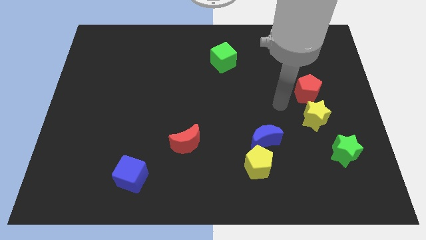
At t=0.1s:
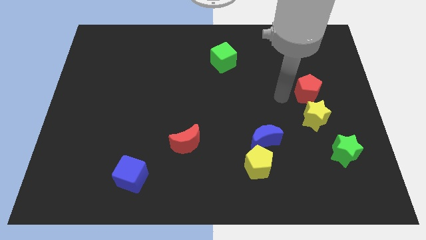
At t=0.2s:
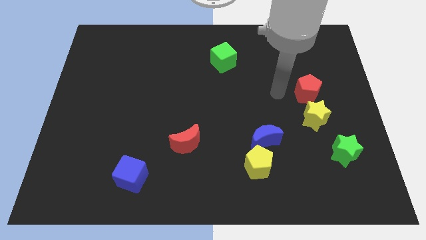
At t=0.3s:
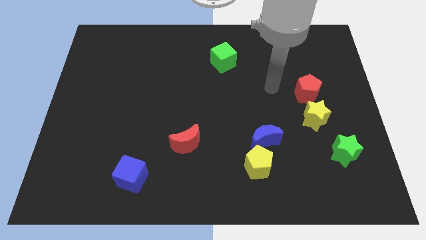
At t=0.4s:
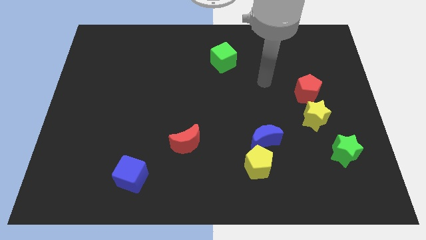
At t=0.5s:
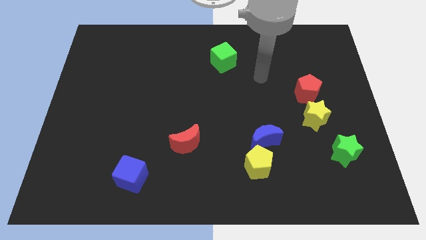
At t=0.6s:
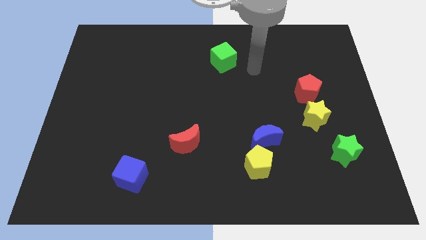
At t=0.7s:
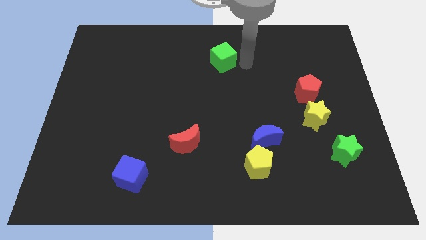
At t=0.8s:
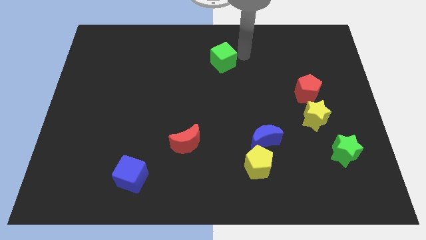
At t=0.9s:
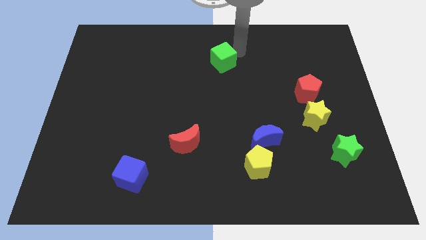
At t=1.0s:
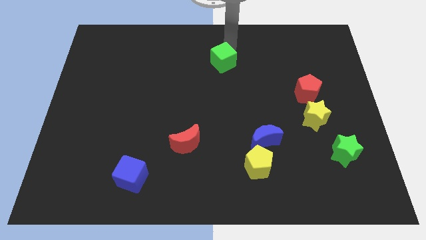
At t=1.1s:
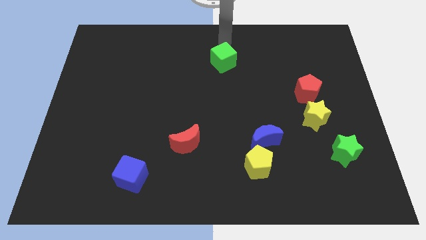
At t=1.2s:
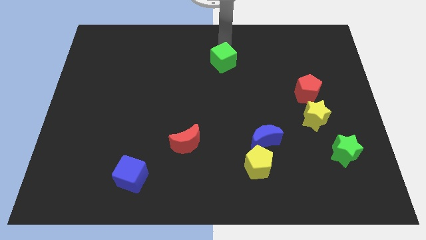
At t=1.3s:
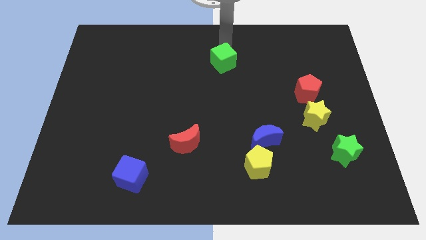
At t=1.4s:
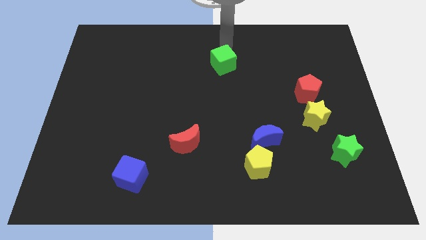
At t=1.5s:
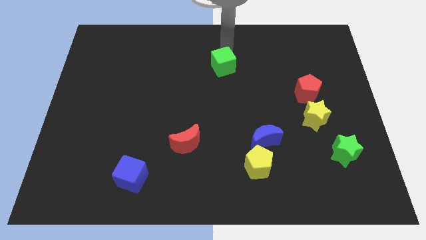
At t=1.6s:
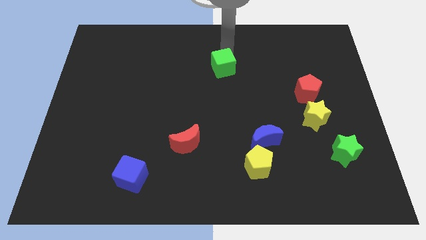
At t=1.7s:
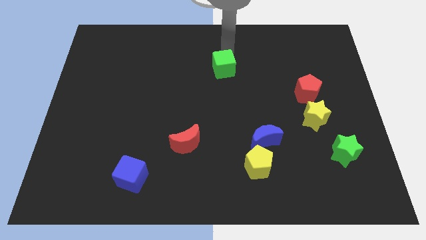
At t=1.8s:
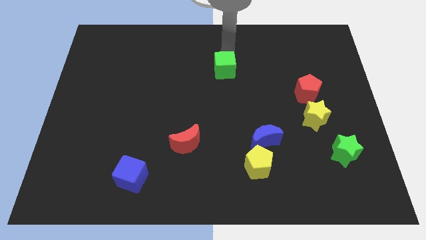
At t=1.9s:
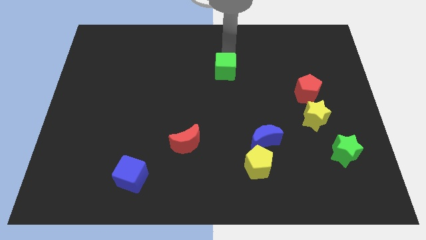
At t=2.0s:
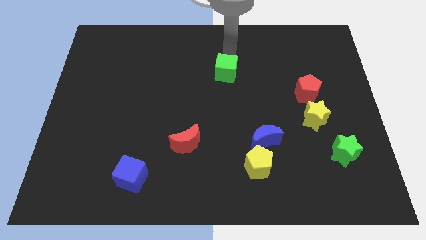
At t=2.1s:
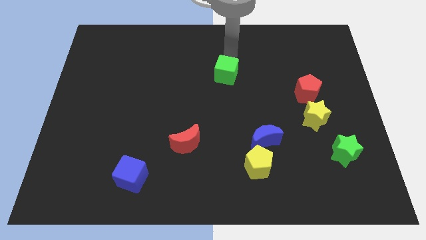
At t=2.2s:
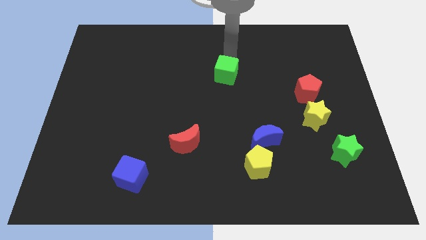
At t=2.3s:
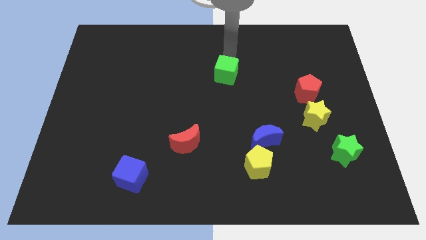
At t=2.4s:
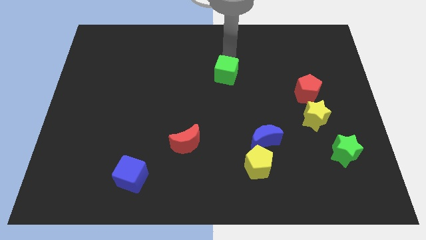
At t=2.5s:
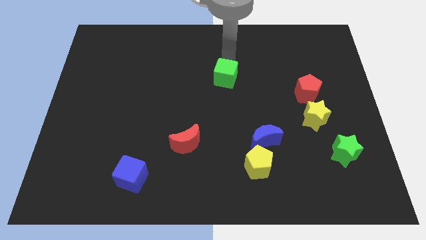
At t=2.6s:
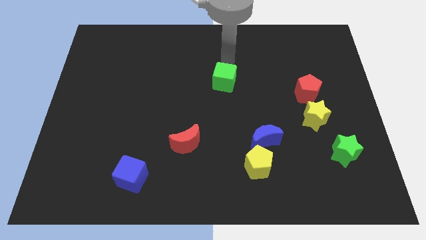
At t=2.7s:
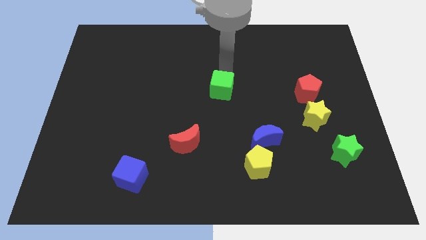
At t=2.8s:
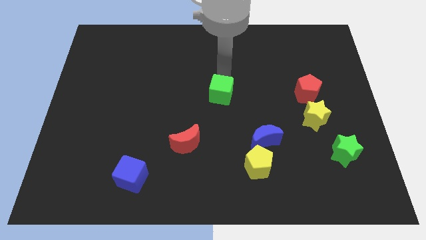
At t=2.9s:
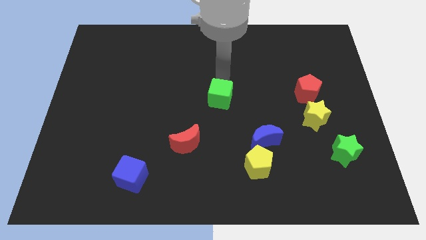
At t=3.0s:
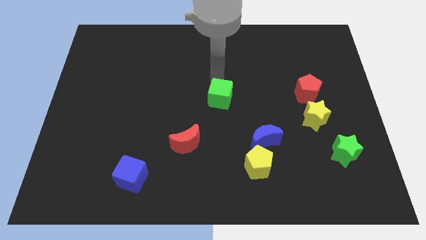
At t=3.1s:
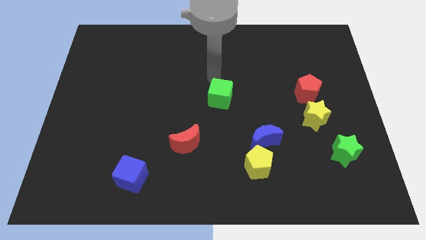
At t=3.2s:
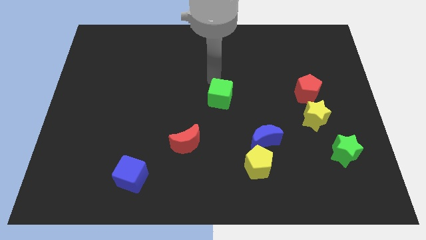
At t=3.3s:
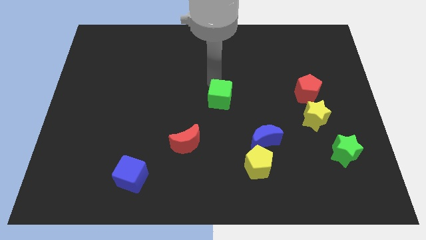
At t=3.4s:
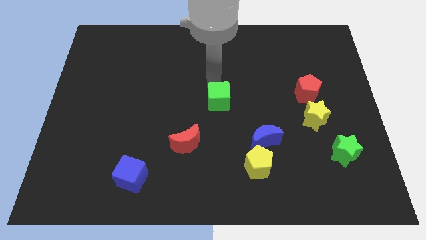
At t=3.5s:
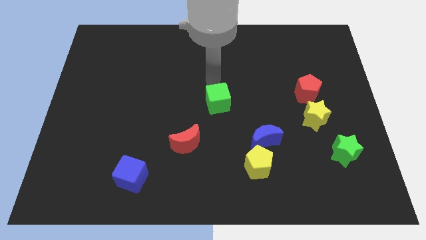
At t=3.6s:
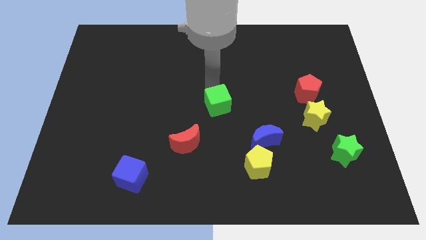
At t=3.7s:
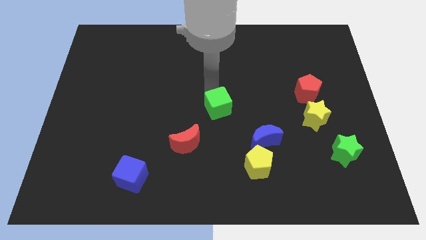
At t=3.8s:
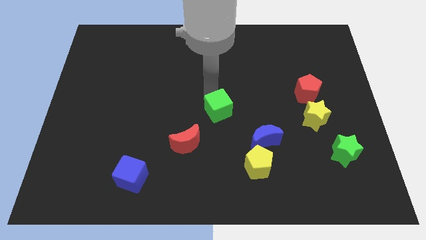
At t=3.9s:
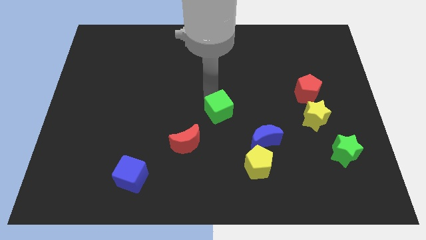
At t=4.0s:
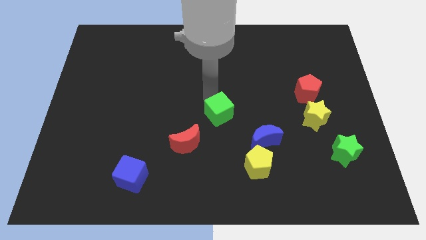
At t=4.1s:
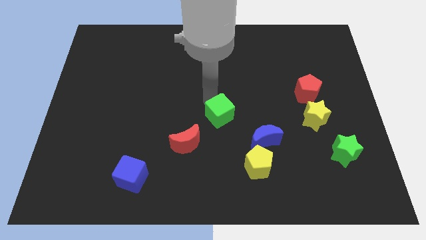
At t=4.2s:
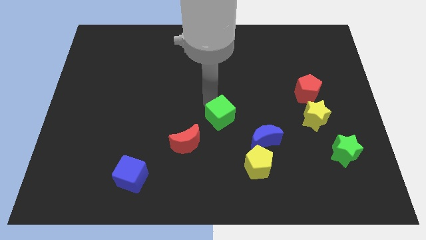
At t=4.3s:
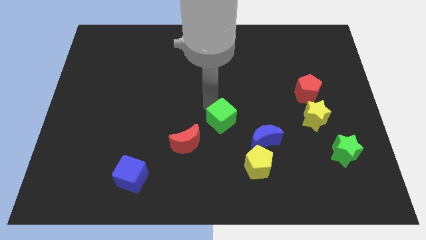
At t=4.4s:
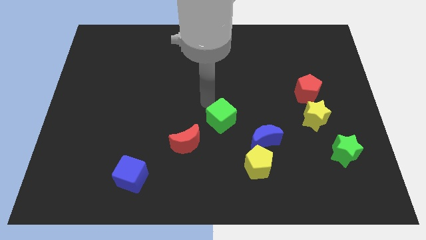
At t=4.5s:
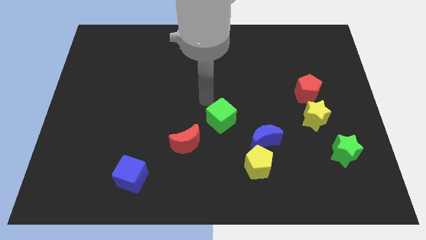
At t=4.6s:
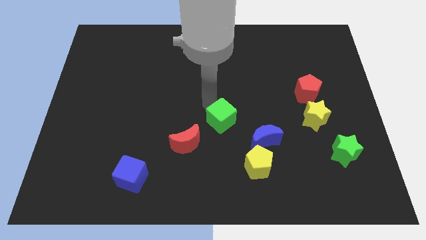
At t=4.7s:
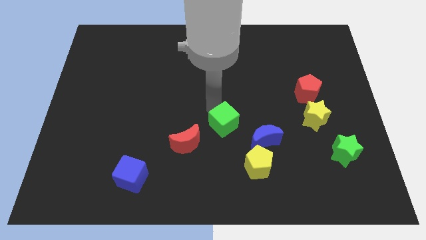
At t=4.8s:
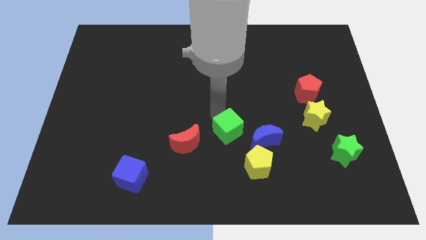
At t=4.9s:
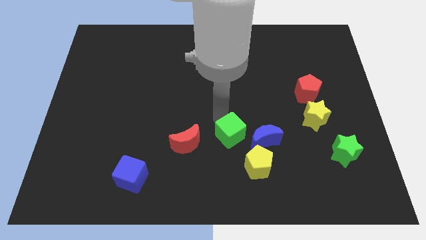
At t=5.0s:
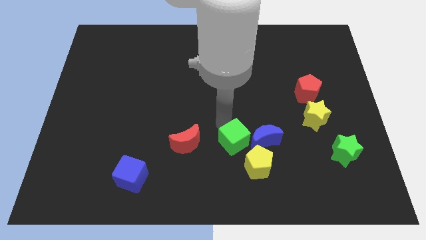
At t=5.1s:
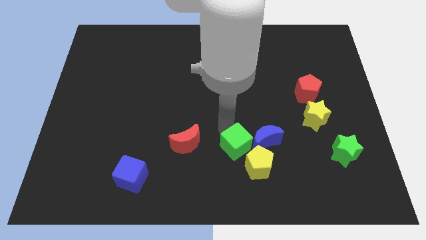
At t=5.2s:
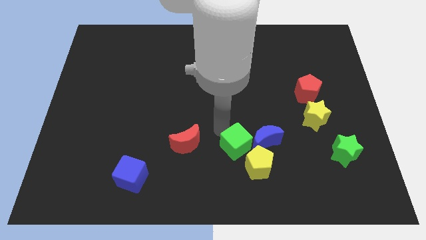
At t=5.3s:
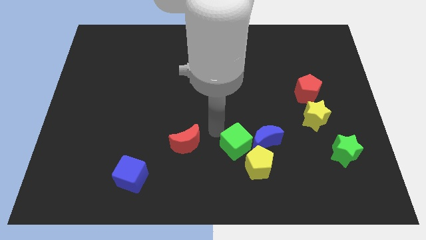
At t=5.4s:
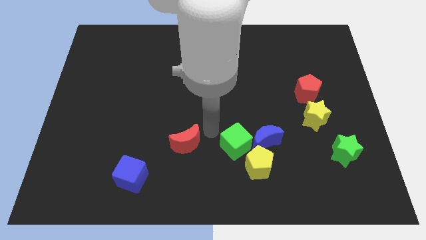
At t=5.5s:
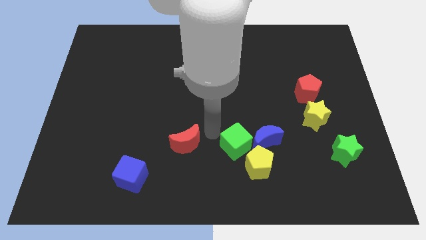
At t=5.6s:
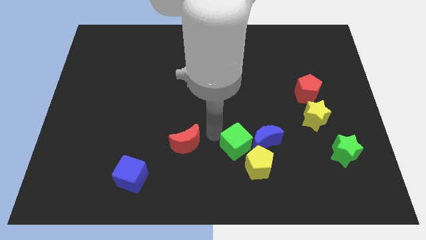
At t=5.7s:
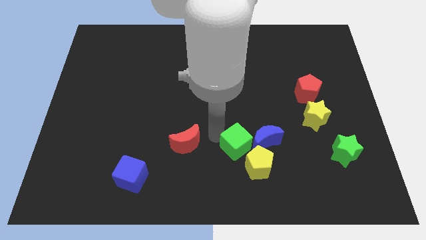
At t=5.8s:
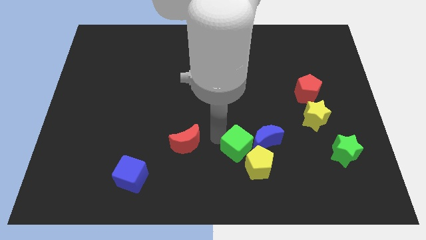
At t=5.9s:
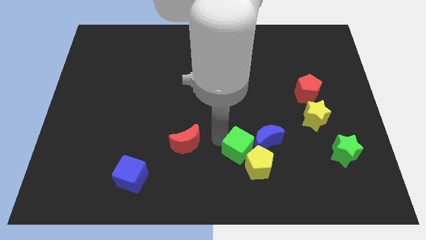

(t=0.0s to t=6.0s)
move the green cube towards the yellow pentagon
